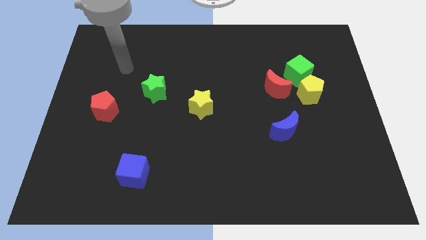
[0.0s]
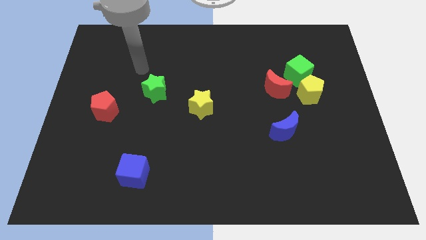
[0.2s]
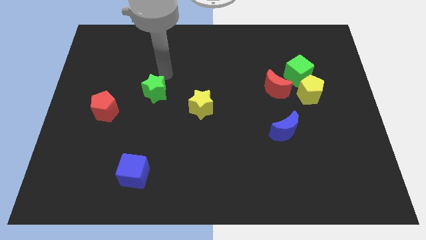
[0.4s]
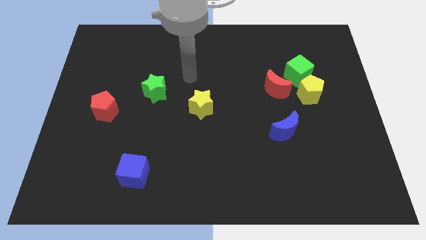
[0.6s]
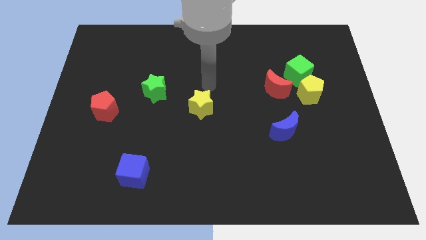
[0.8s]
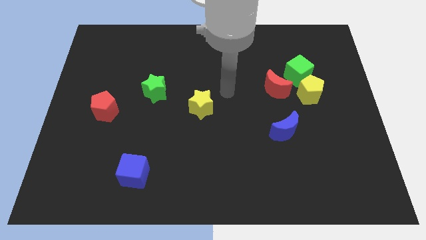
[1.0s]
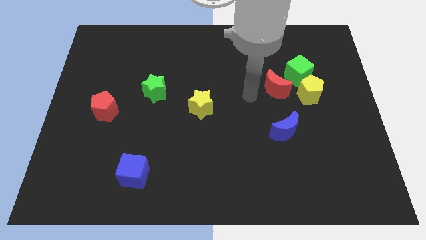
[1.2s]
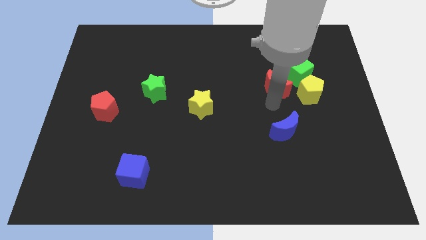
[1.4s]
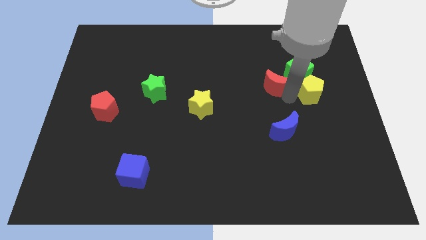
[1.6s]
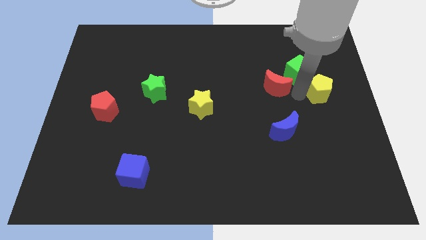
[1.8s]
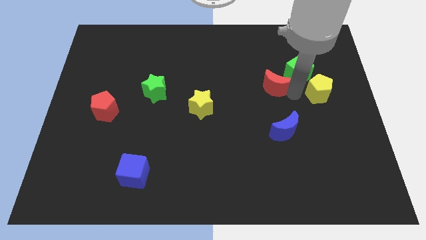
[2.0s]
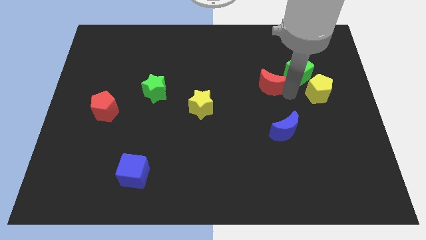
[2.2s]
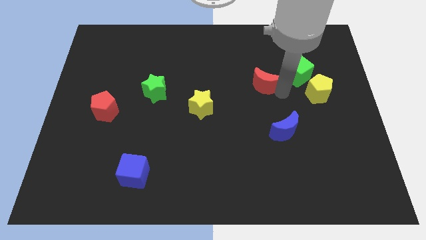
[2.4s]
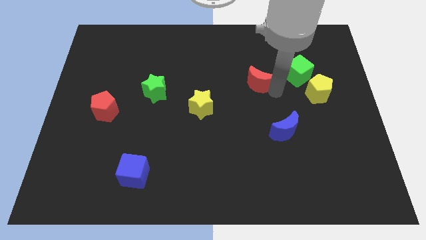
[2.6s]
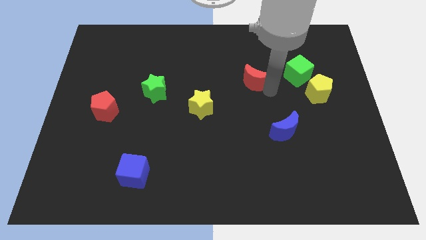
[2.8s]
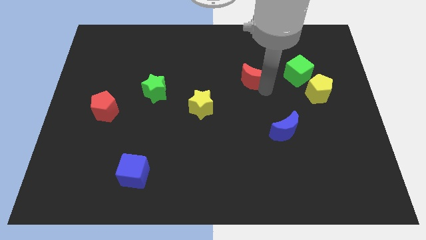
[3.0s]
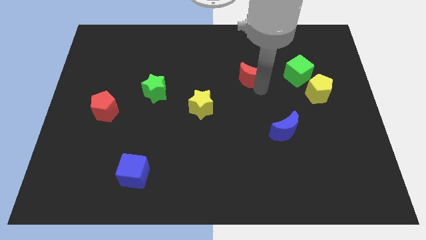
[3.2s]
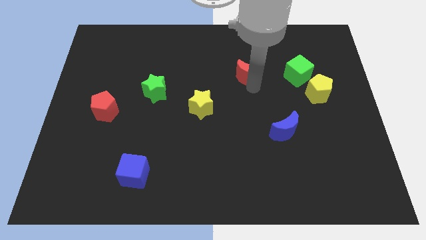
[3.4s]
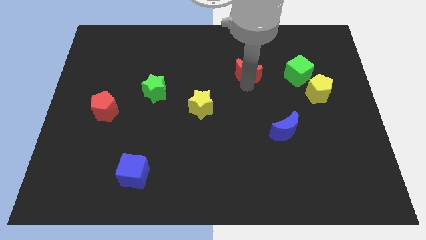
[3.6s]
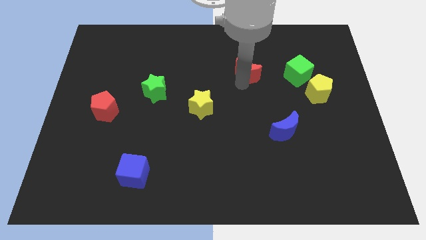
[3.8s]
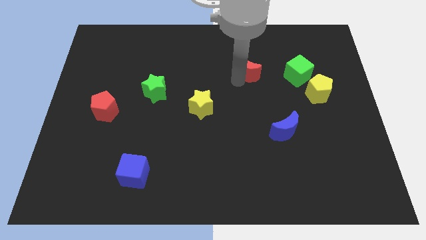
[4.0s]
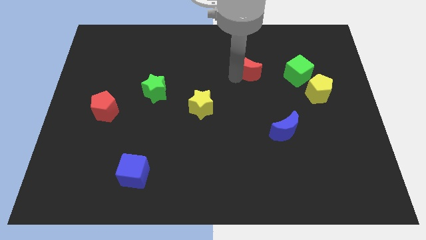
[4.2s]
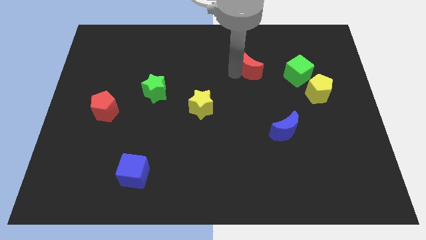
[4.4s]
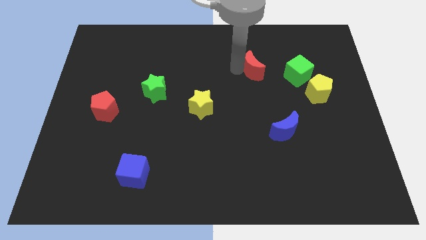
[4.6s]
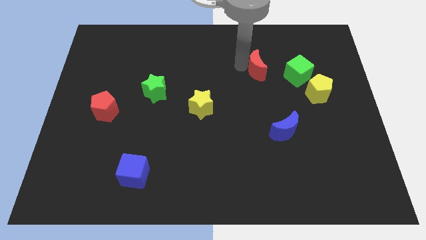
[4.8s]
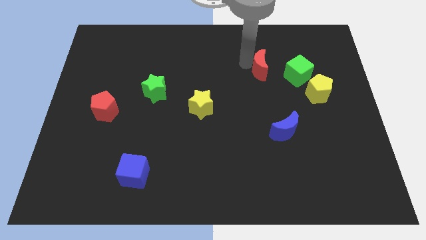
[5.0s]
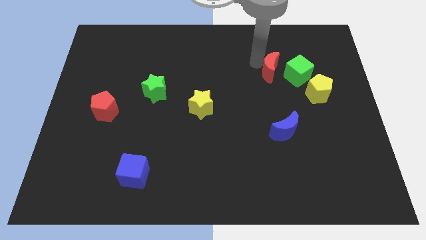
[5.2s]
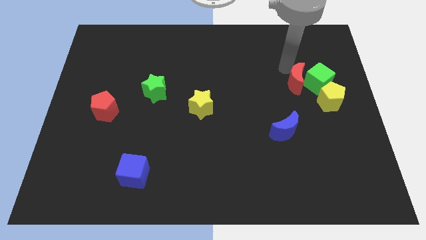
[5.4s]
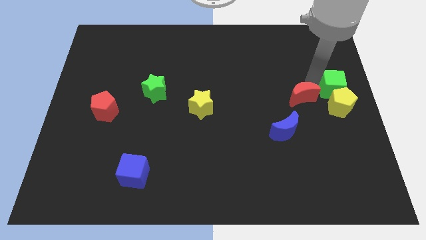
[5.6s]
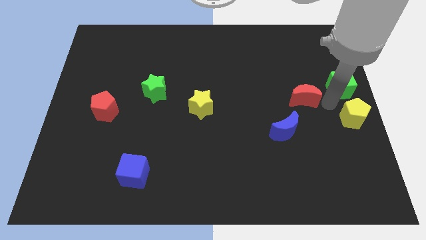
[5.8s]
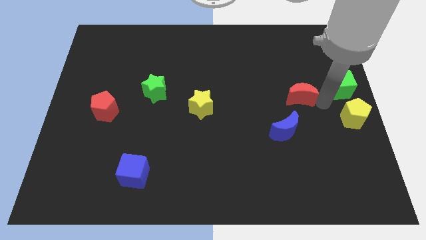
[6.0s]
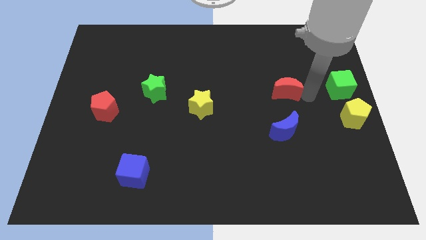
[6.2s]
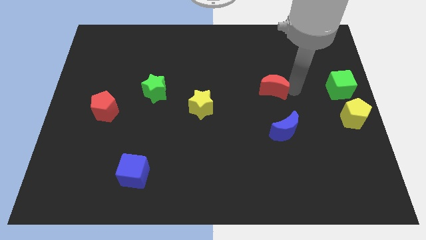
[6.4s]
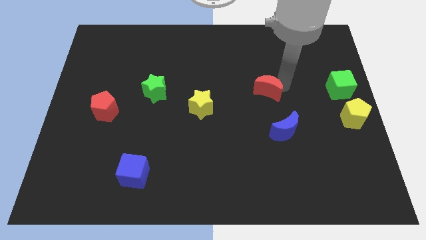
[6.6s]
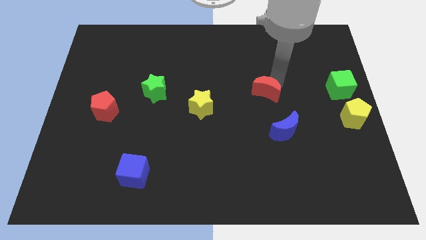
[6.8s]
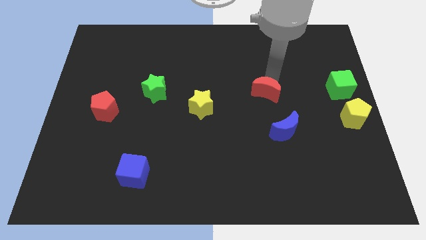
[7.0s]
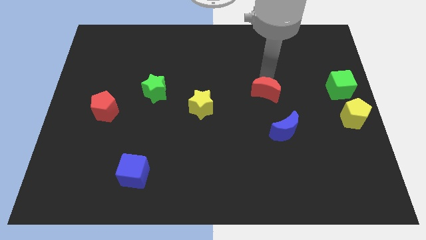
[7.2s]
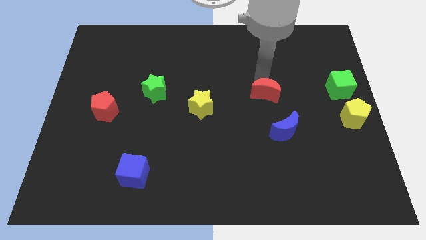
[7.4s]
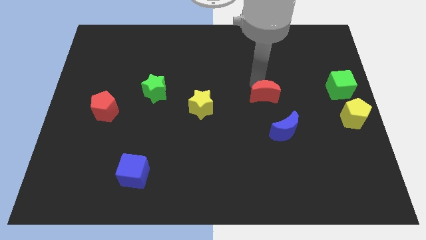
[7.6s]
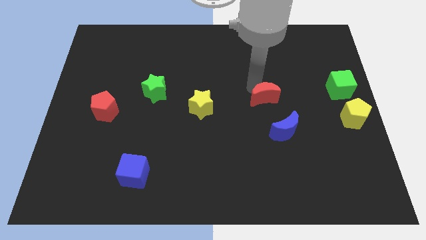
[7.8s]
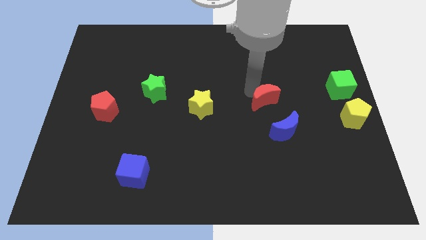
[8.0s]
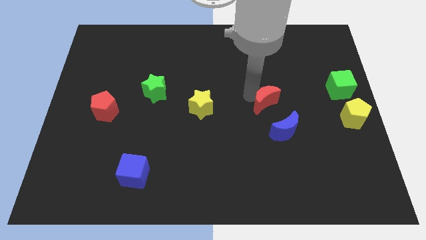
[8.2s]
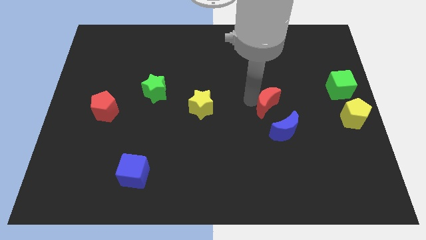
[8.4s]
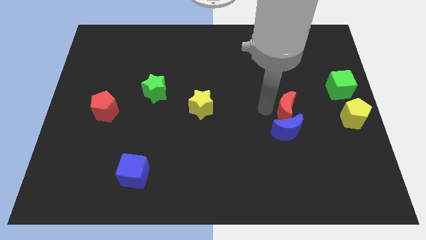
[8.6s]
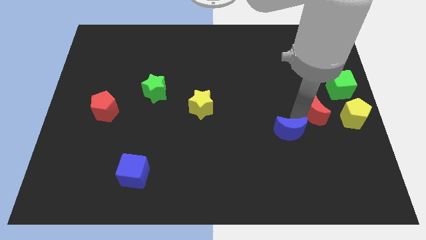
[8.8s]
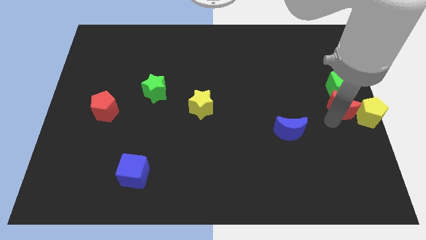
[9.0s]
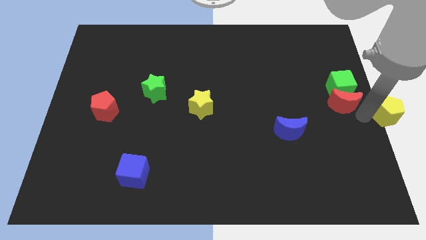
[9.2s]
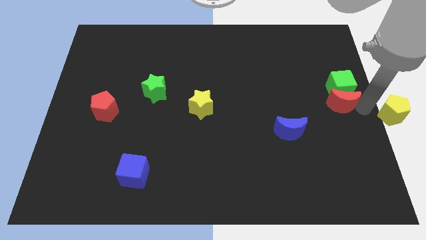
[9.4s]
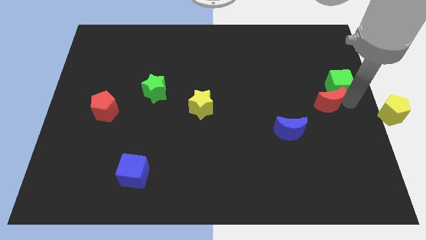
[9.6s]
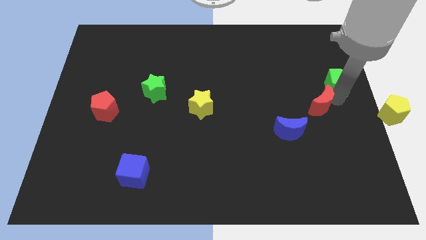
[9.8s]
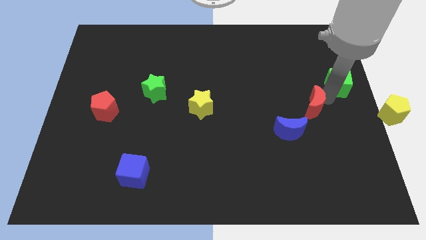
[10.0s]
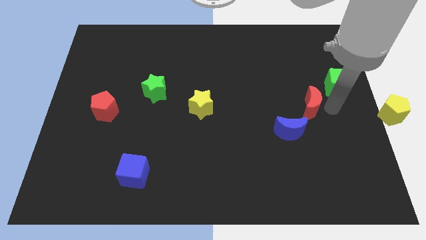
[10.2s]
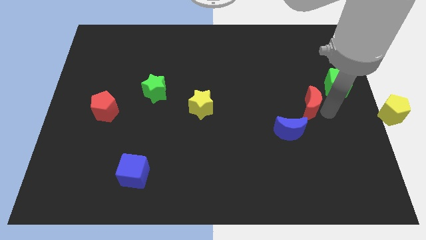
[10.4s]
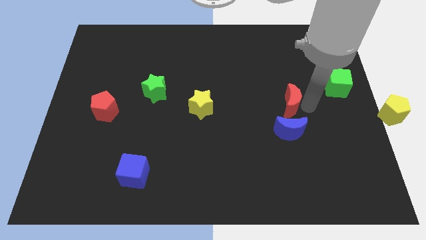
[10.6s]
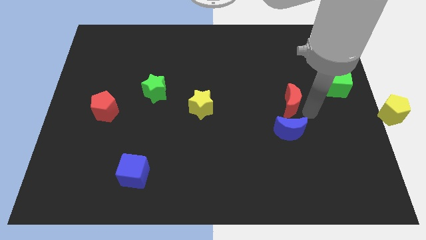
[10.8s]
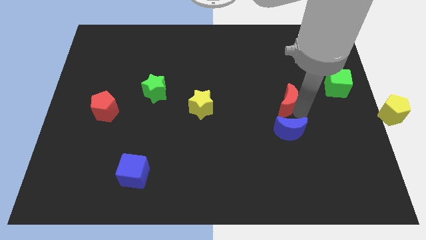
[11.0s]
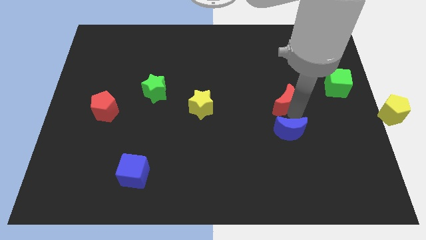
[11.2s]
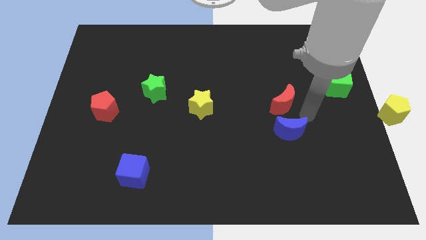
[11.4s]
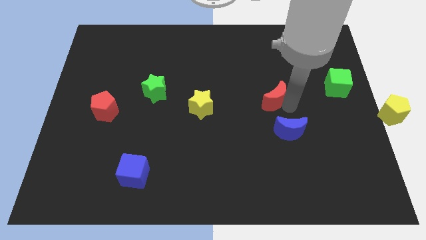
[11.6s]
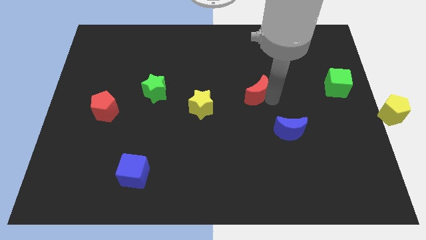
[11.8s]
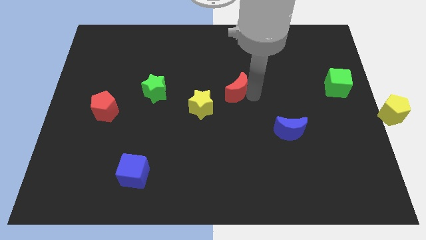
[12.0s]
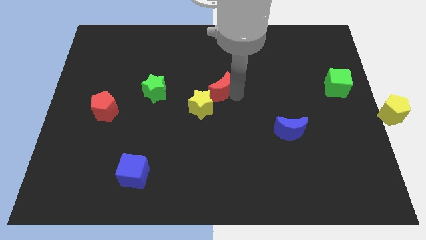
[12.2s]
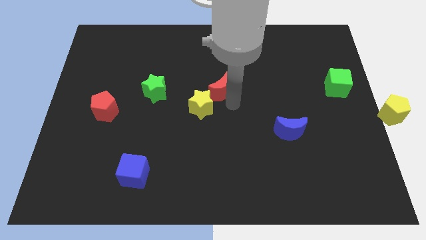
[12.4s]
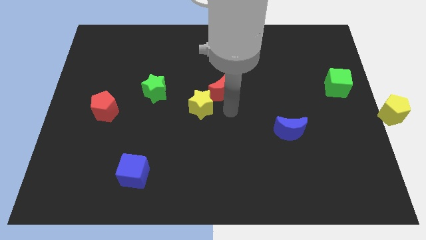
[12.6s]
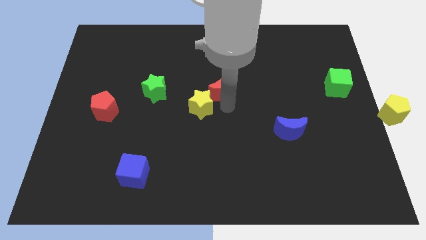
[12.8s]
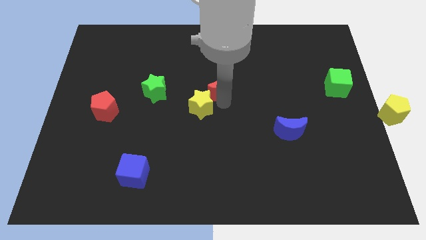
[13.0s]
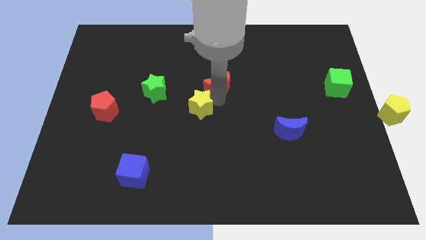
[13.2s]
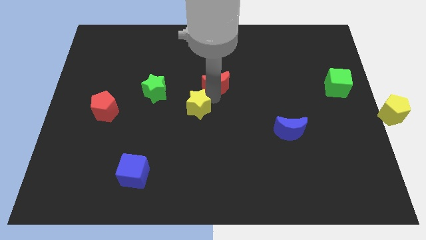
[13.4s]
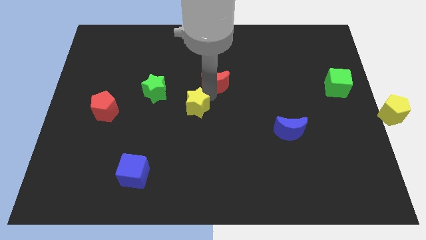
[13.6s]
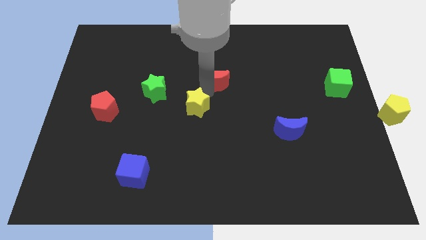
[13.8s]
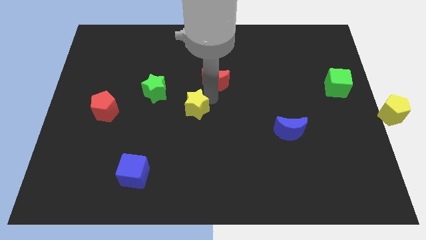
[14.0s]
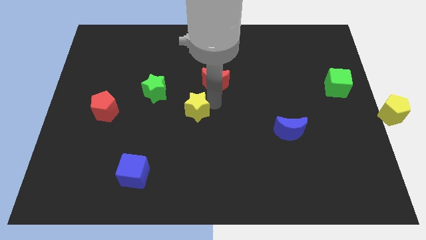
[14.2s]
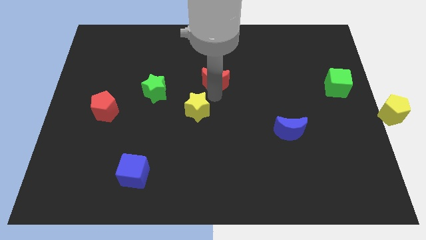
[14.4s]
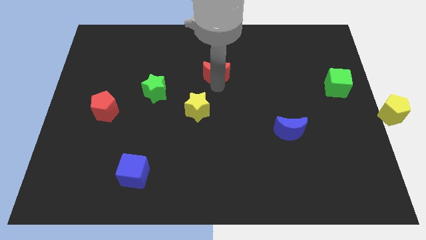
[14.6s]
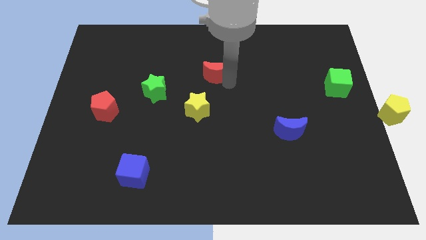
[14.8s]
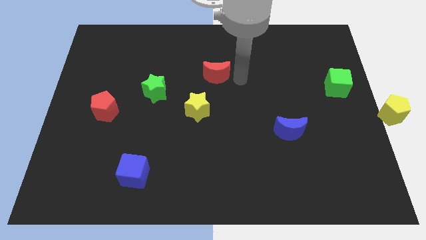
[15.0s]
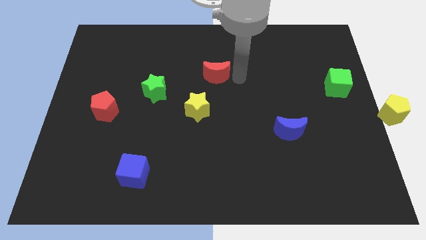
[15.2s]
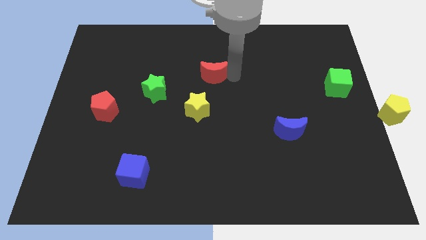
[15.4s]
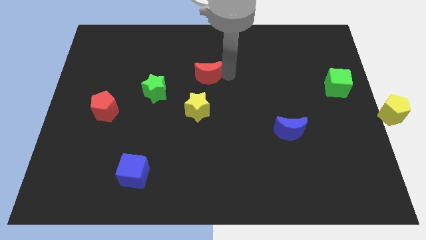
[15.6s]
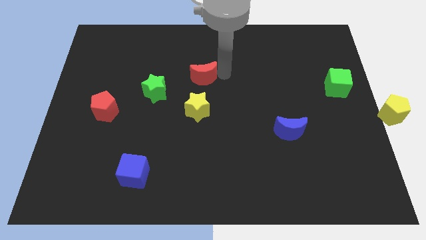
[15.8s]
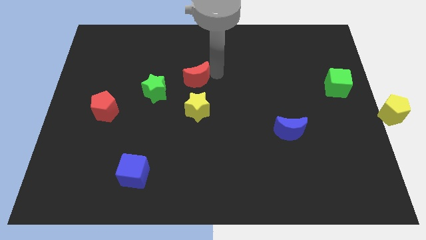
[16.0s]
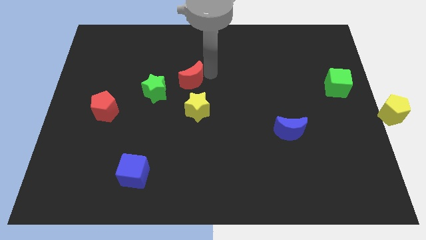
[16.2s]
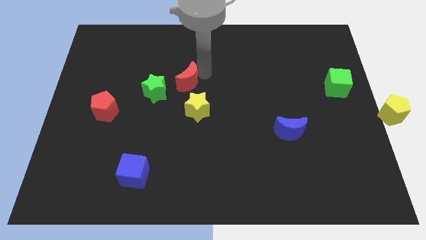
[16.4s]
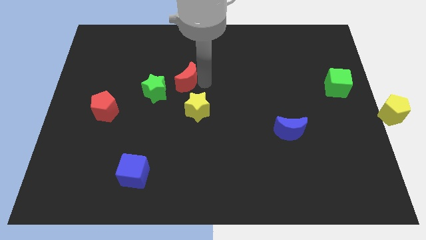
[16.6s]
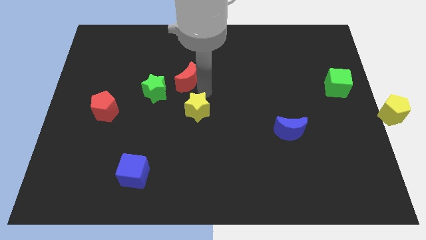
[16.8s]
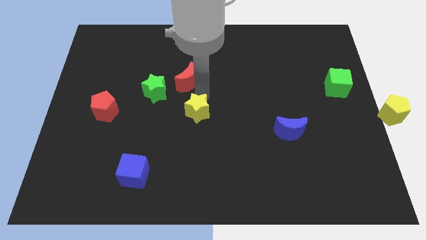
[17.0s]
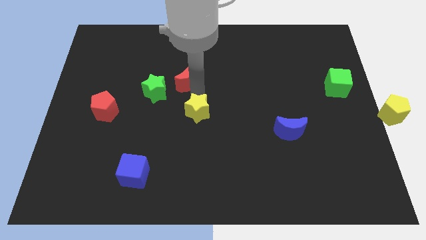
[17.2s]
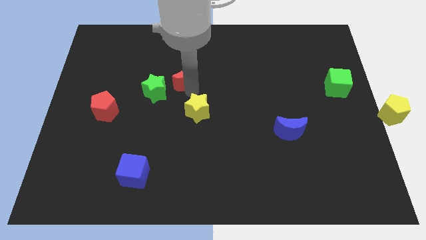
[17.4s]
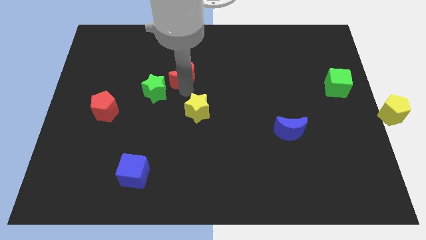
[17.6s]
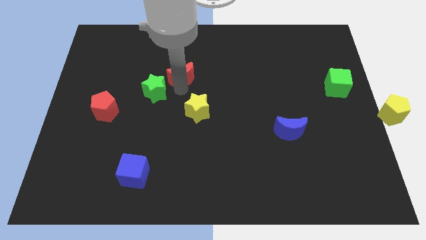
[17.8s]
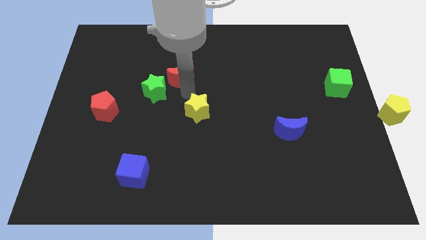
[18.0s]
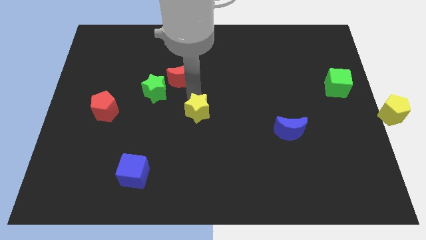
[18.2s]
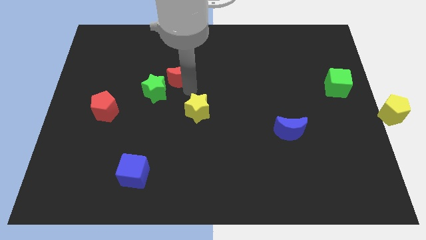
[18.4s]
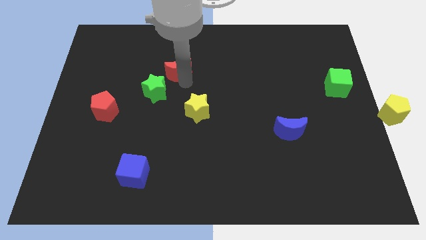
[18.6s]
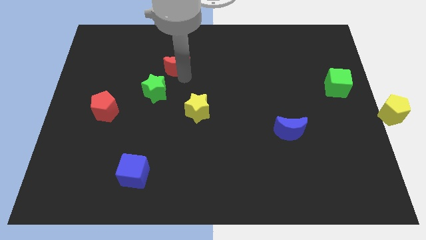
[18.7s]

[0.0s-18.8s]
move the red moon above the green star
